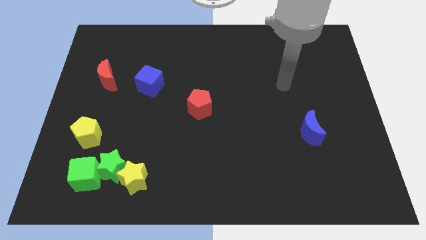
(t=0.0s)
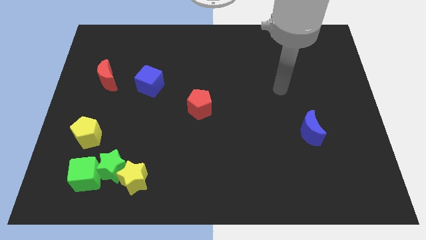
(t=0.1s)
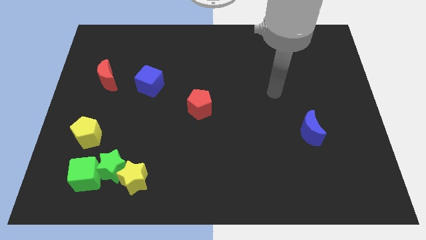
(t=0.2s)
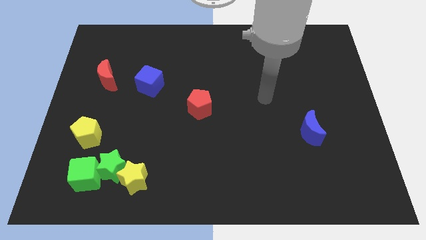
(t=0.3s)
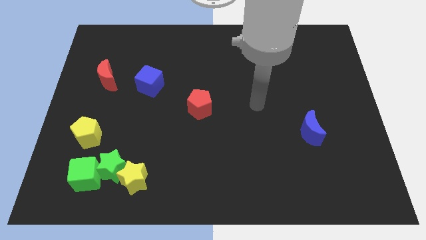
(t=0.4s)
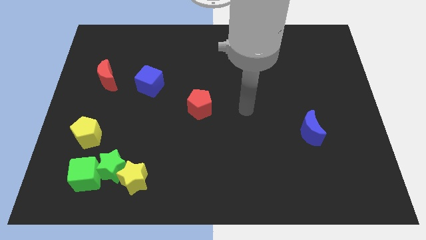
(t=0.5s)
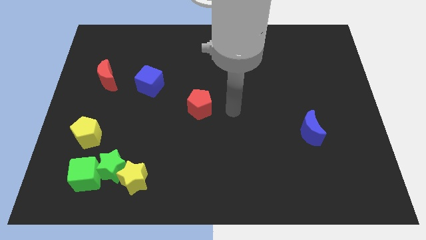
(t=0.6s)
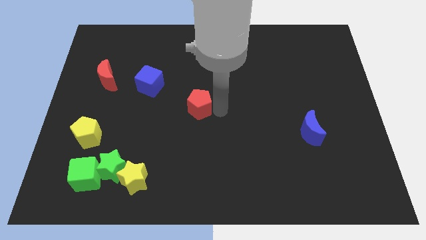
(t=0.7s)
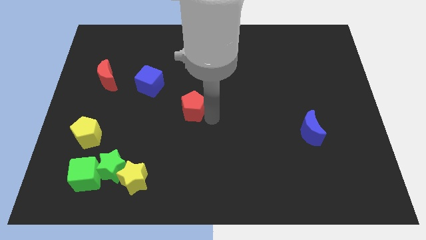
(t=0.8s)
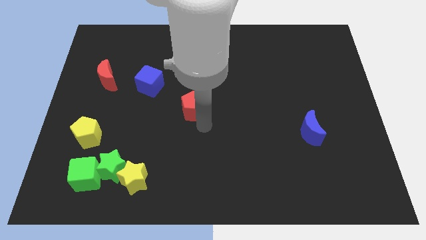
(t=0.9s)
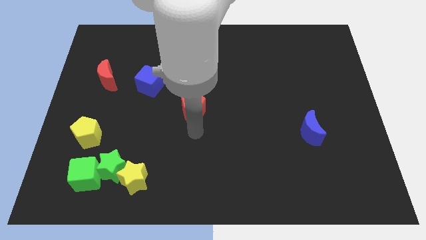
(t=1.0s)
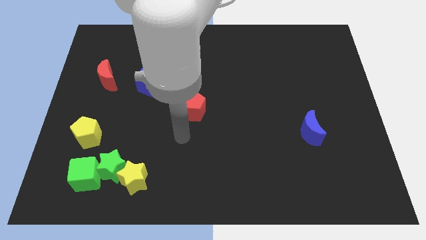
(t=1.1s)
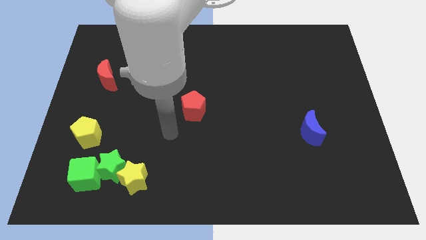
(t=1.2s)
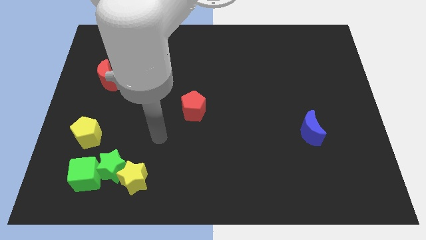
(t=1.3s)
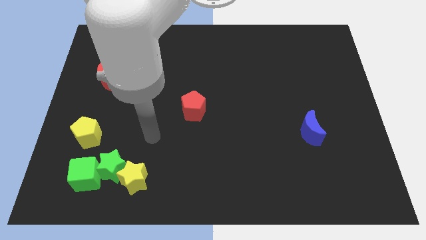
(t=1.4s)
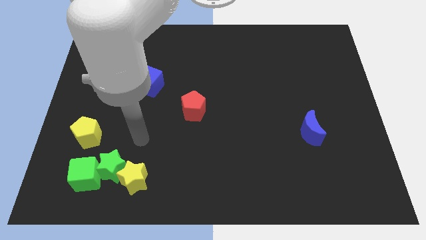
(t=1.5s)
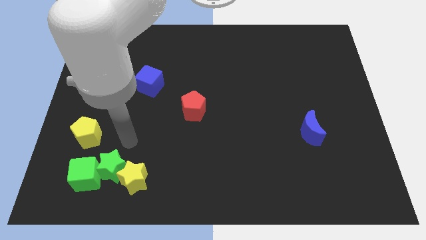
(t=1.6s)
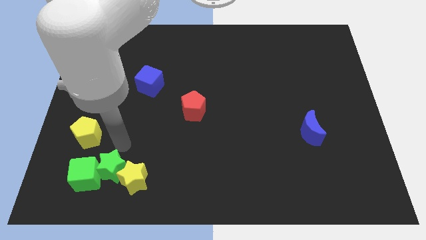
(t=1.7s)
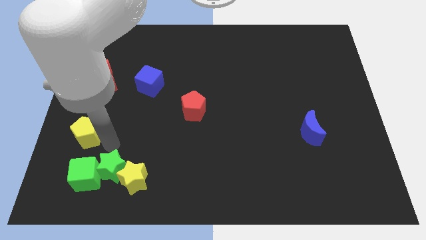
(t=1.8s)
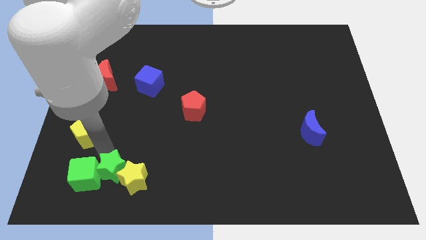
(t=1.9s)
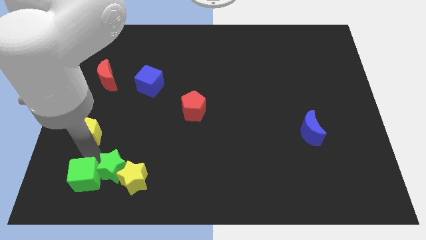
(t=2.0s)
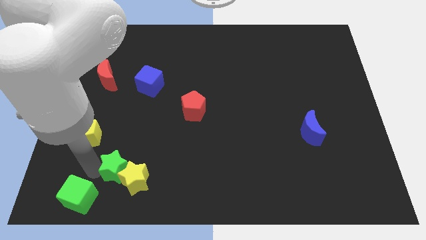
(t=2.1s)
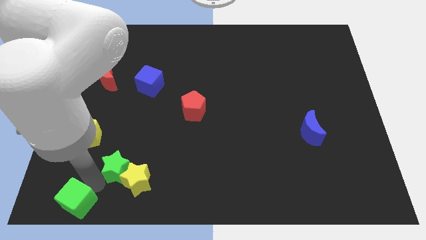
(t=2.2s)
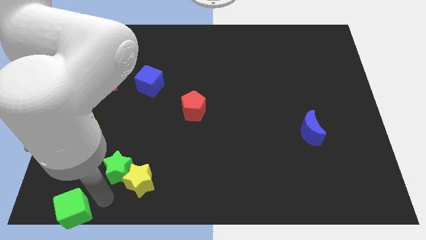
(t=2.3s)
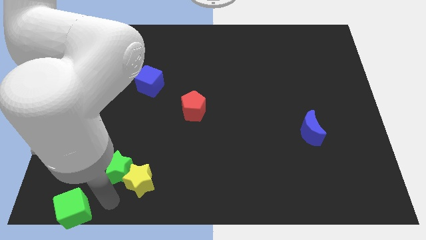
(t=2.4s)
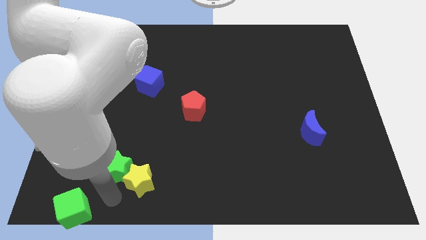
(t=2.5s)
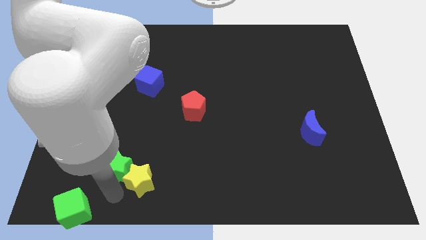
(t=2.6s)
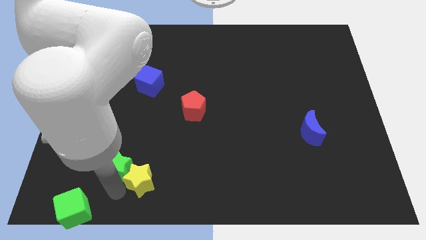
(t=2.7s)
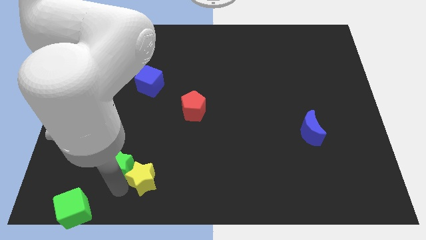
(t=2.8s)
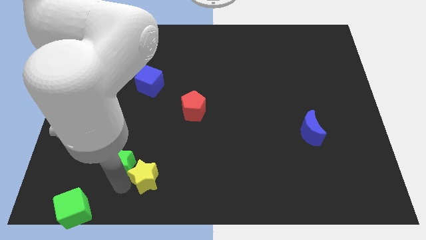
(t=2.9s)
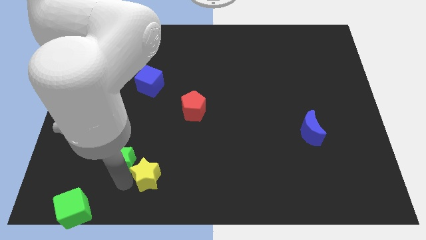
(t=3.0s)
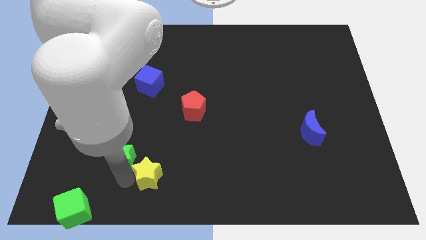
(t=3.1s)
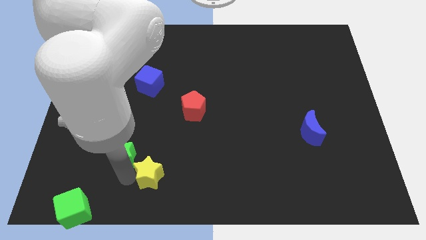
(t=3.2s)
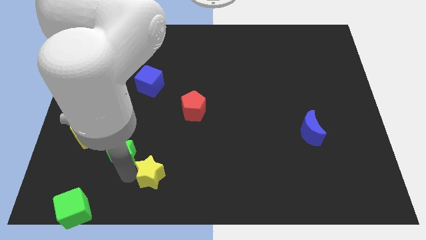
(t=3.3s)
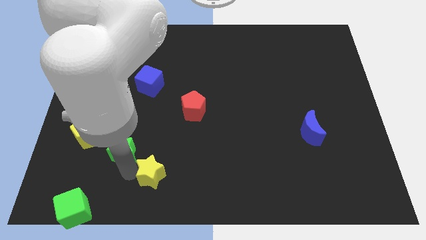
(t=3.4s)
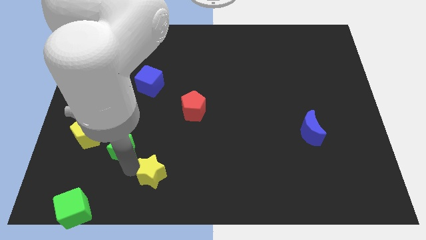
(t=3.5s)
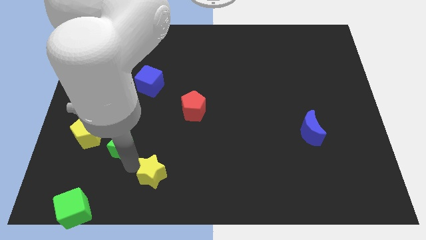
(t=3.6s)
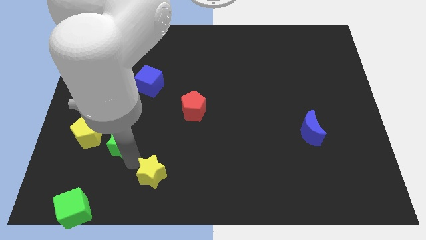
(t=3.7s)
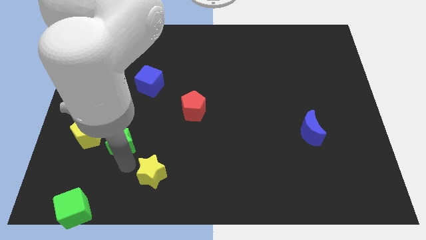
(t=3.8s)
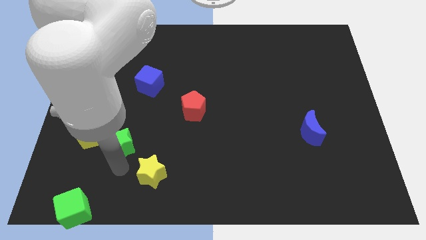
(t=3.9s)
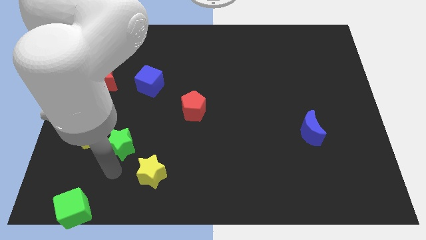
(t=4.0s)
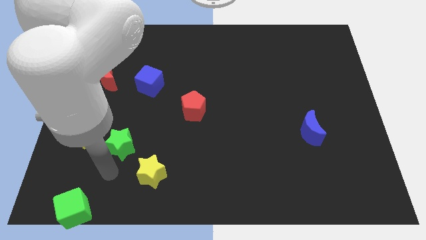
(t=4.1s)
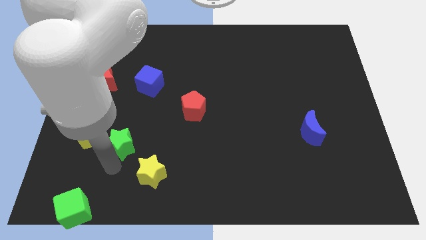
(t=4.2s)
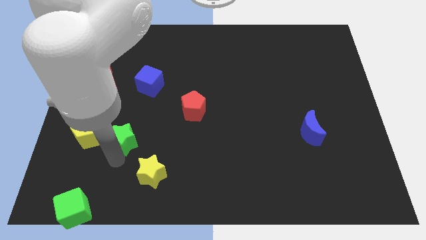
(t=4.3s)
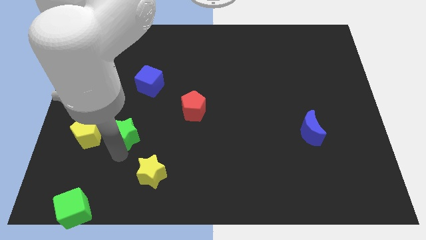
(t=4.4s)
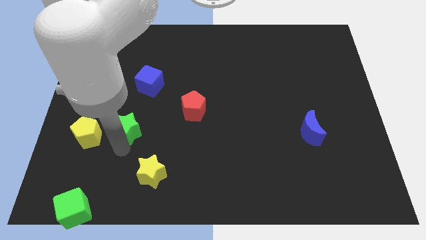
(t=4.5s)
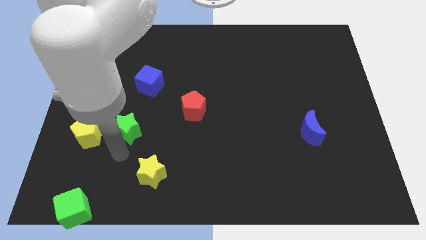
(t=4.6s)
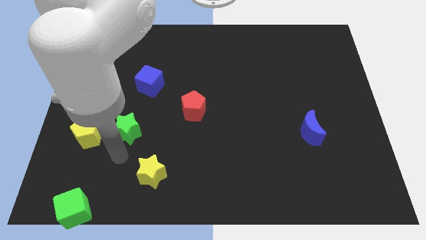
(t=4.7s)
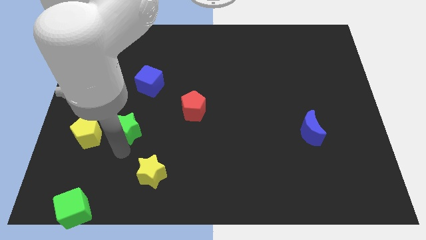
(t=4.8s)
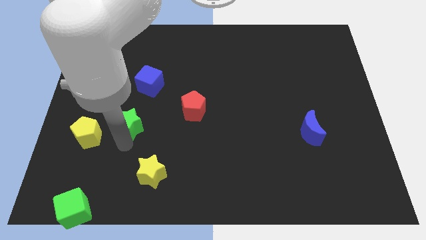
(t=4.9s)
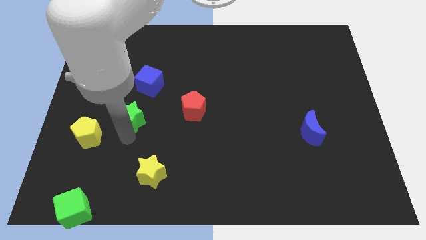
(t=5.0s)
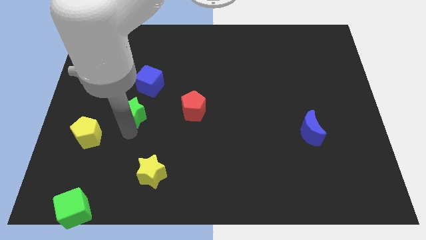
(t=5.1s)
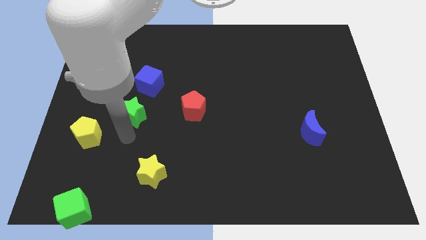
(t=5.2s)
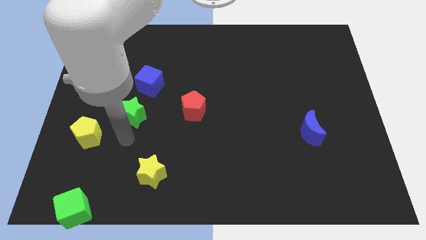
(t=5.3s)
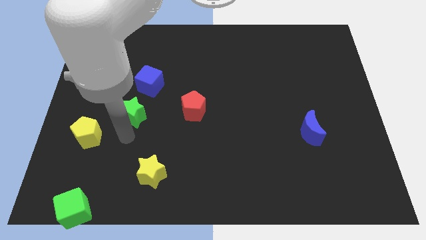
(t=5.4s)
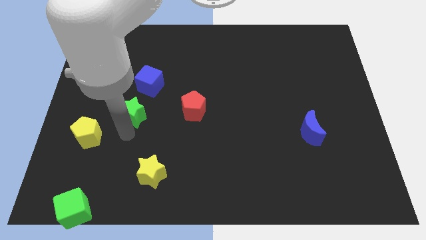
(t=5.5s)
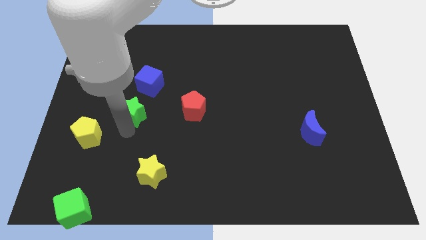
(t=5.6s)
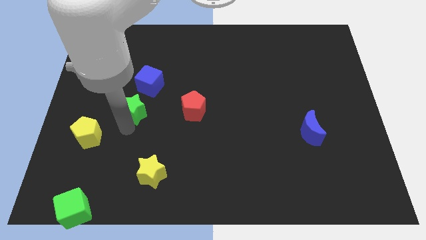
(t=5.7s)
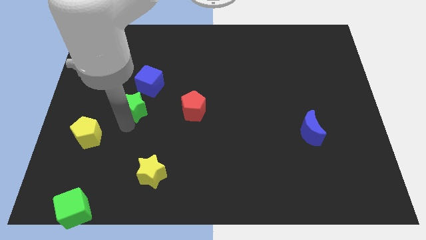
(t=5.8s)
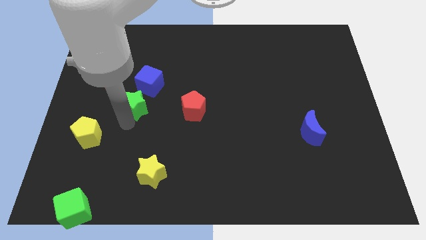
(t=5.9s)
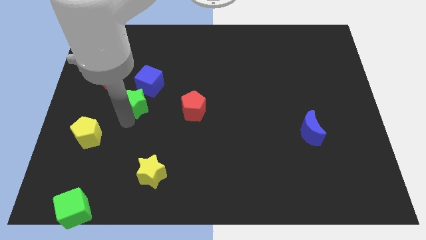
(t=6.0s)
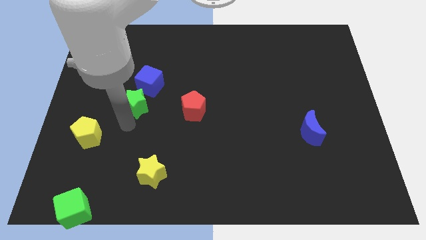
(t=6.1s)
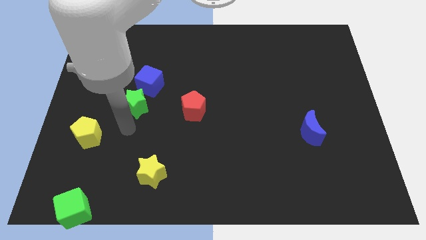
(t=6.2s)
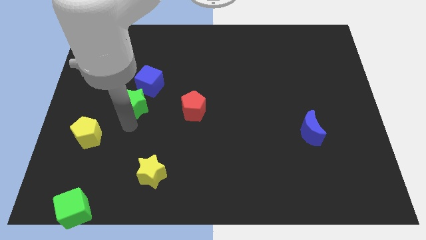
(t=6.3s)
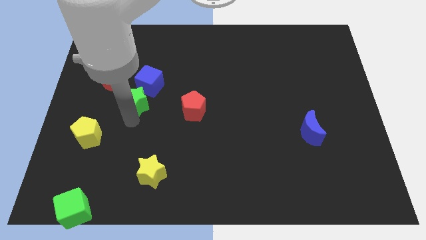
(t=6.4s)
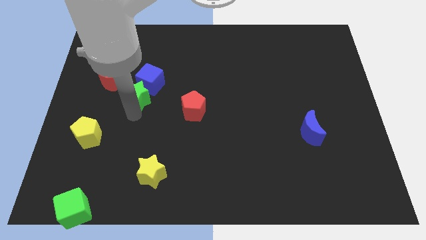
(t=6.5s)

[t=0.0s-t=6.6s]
slide the green star next to the blue cube

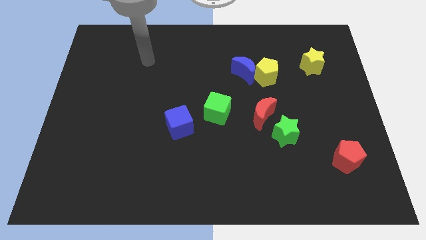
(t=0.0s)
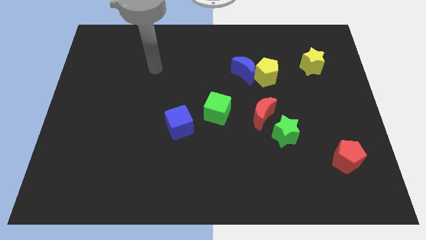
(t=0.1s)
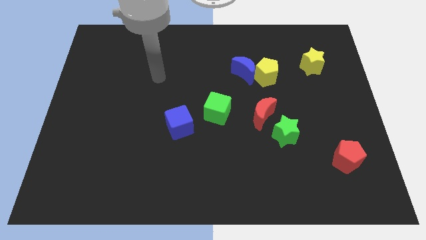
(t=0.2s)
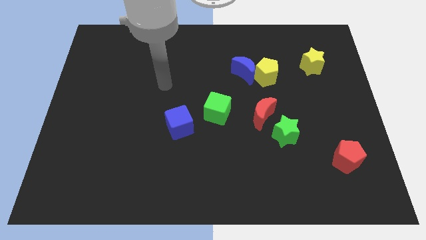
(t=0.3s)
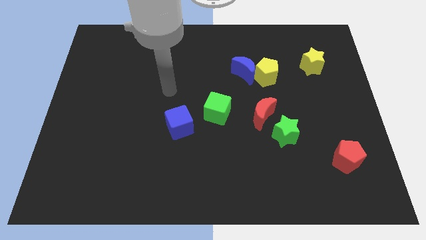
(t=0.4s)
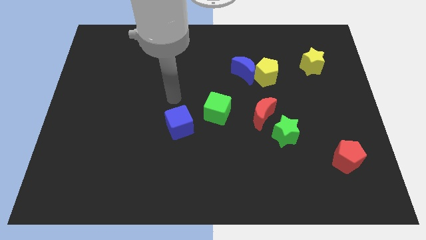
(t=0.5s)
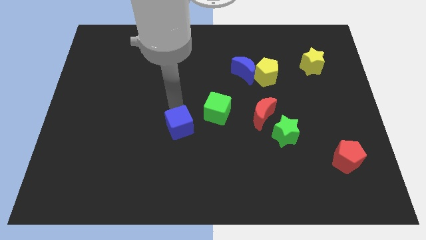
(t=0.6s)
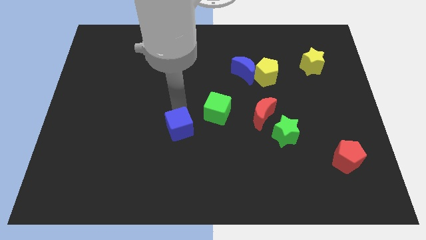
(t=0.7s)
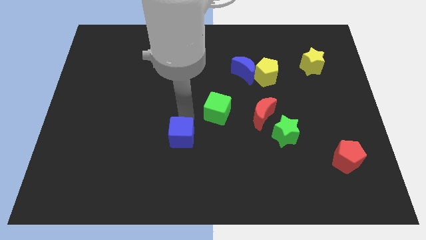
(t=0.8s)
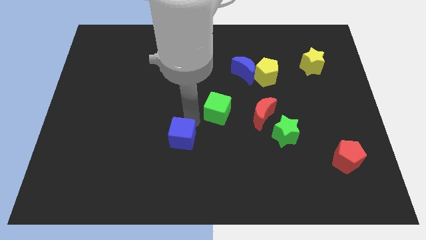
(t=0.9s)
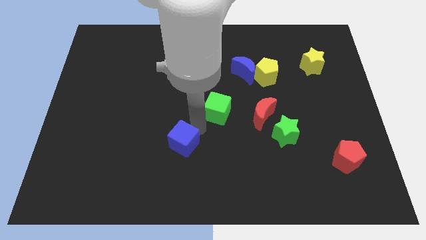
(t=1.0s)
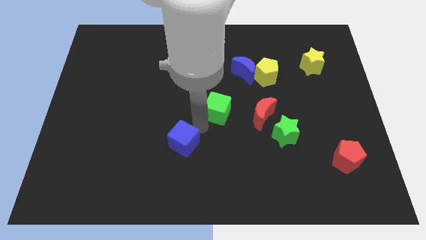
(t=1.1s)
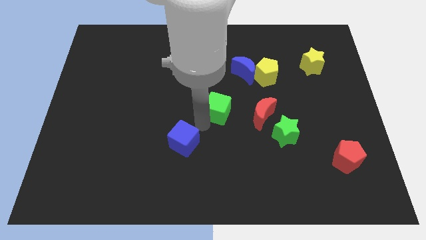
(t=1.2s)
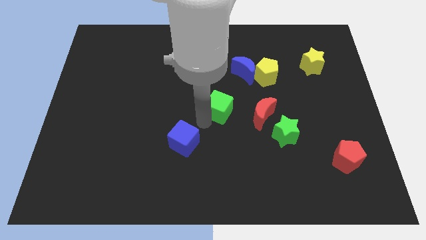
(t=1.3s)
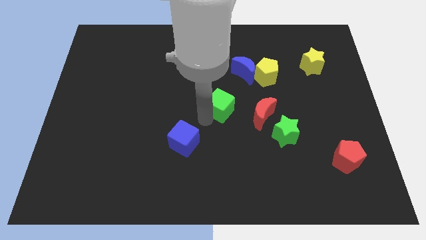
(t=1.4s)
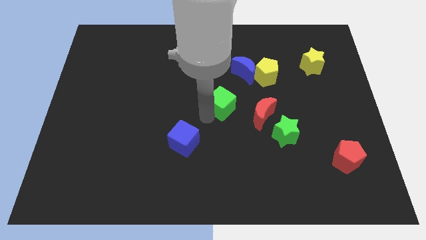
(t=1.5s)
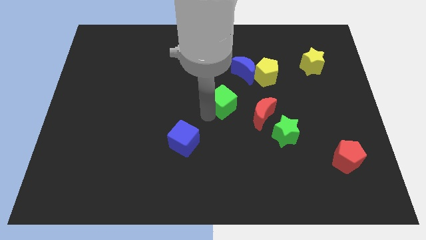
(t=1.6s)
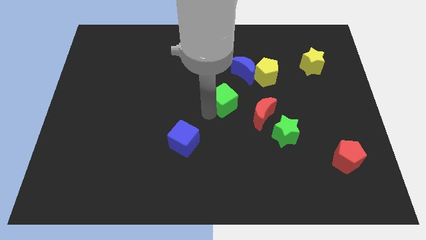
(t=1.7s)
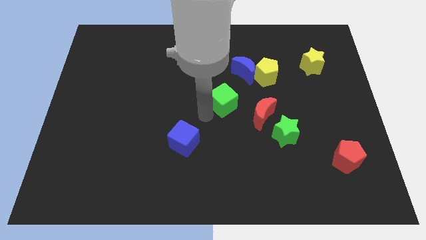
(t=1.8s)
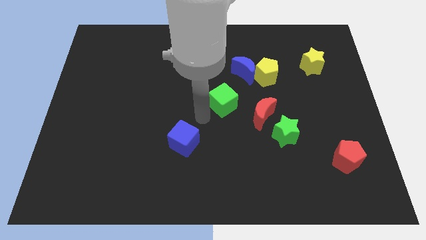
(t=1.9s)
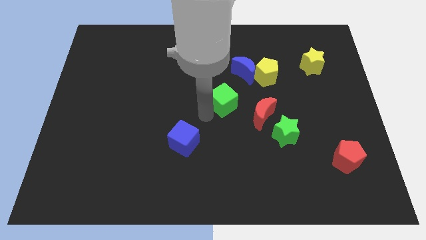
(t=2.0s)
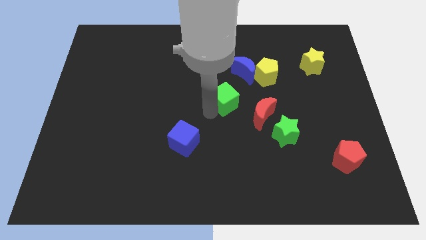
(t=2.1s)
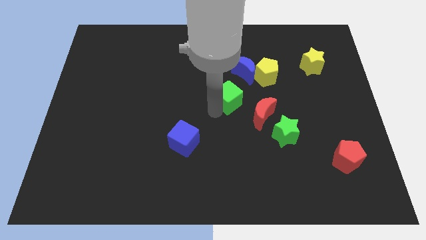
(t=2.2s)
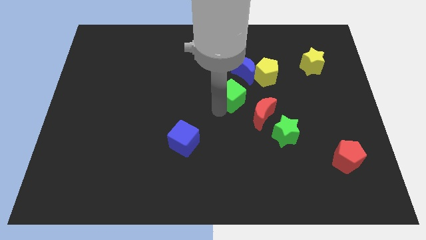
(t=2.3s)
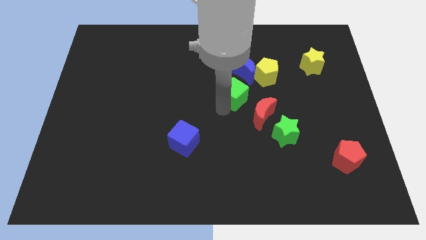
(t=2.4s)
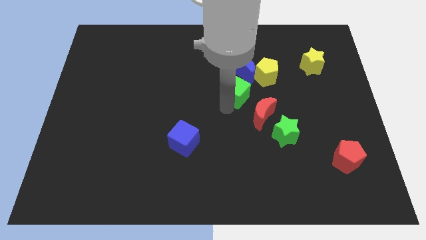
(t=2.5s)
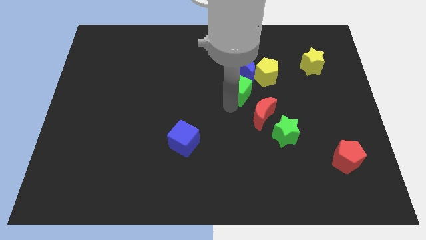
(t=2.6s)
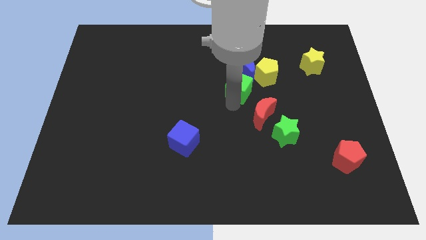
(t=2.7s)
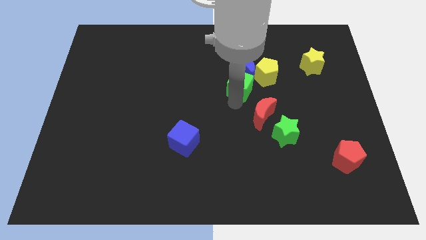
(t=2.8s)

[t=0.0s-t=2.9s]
put the green cube to the blue moon
